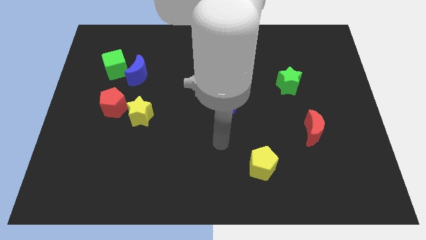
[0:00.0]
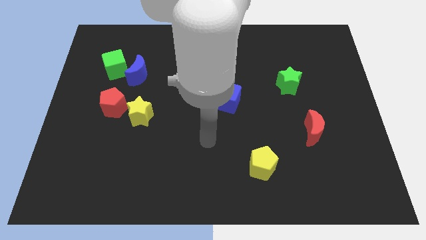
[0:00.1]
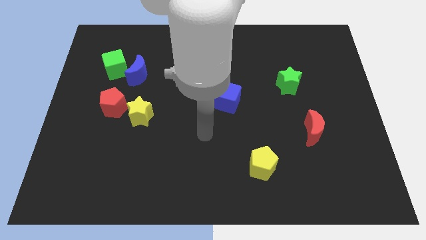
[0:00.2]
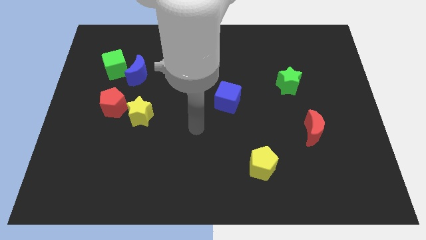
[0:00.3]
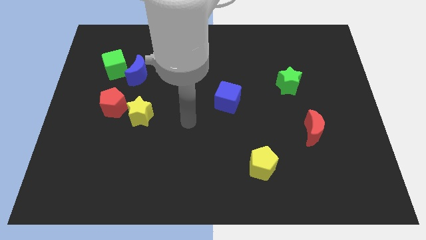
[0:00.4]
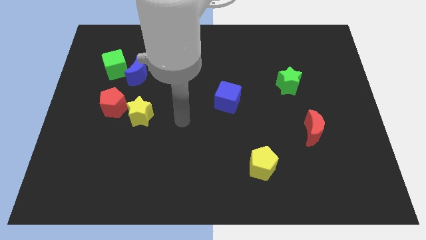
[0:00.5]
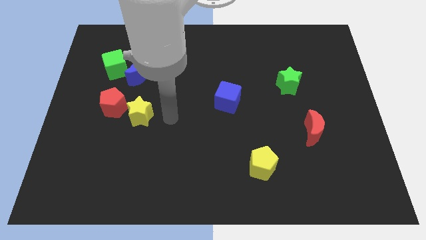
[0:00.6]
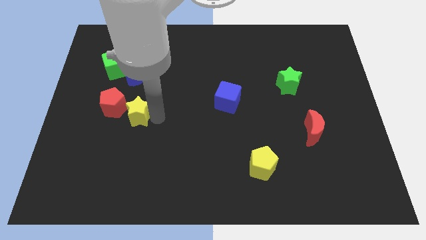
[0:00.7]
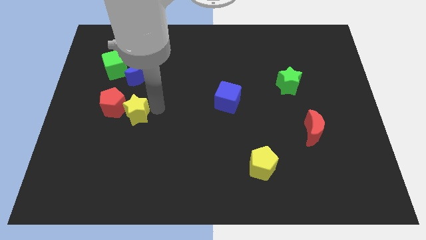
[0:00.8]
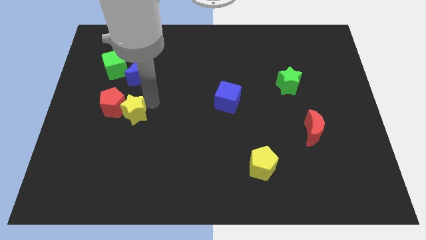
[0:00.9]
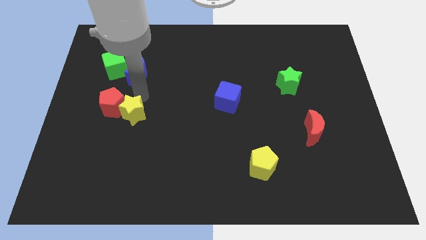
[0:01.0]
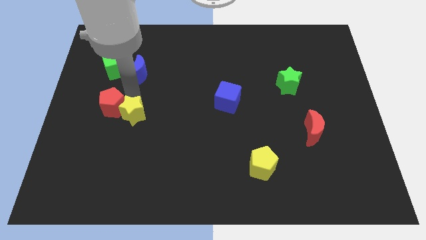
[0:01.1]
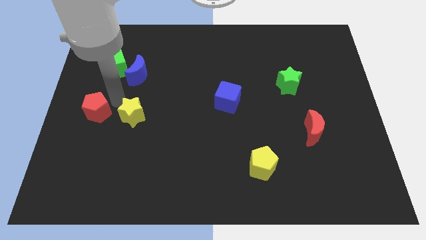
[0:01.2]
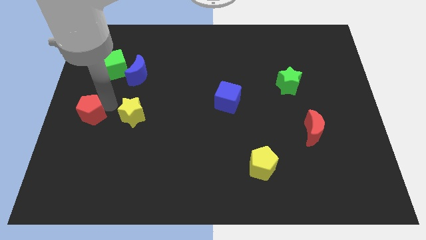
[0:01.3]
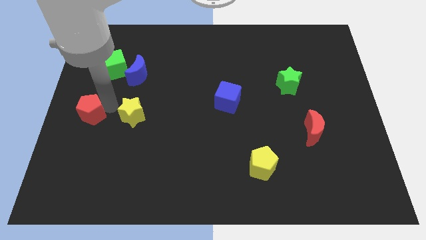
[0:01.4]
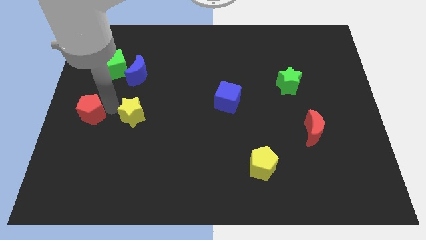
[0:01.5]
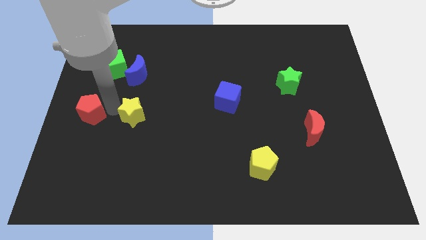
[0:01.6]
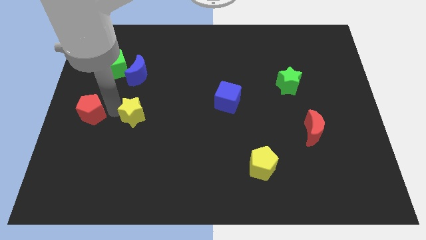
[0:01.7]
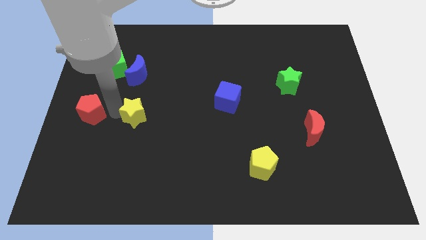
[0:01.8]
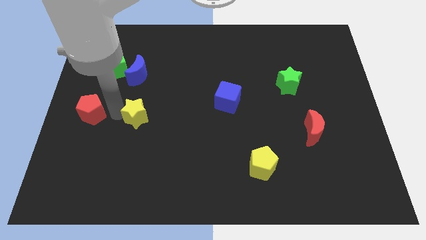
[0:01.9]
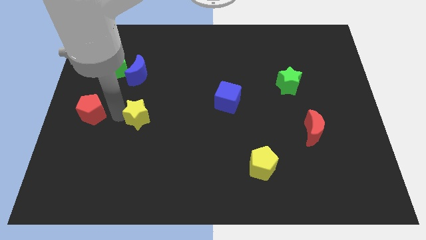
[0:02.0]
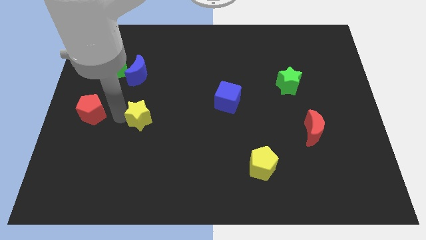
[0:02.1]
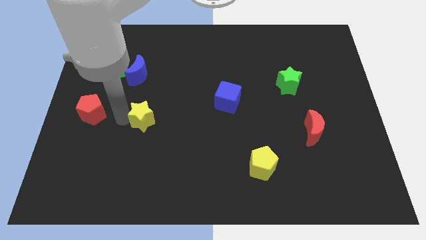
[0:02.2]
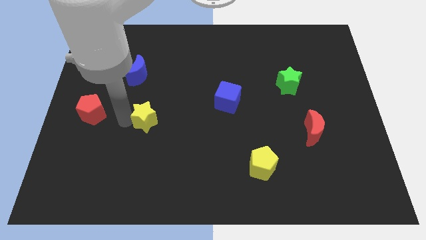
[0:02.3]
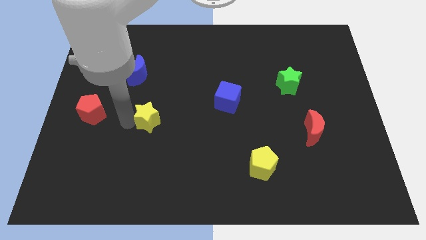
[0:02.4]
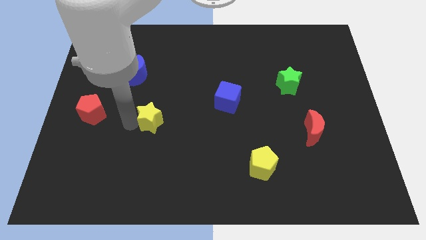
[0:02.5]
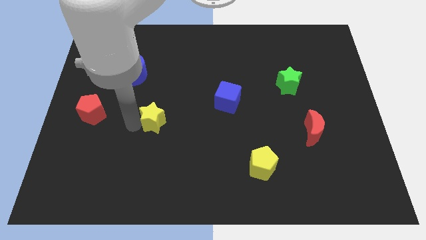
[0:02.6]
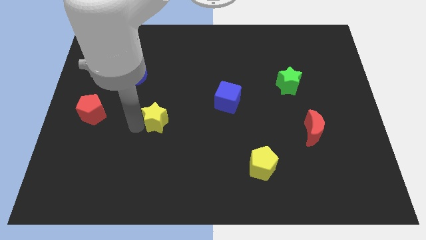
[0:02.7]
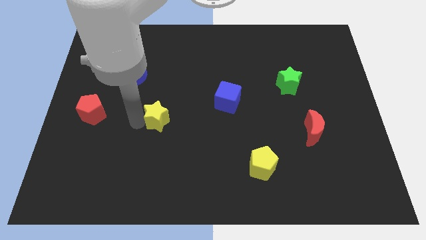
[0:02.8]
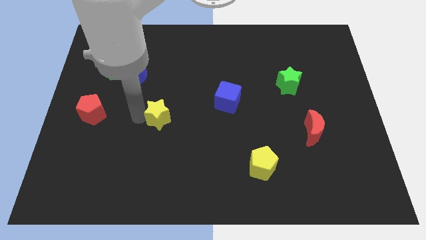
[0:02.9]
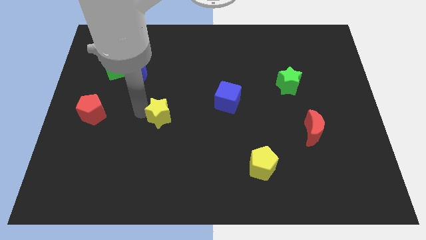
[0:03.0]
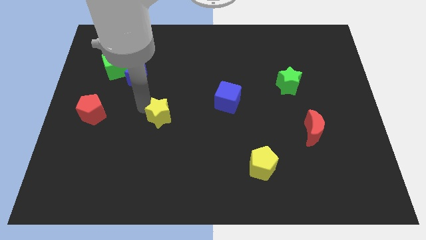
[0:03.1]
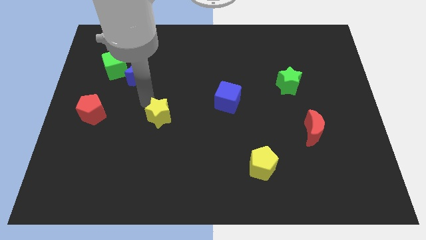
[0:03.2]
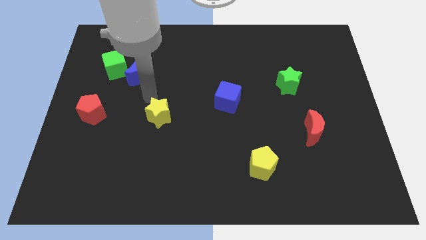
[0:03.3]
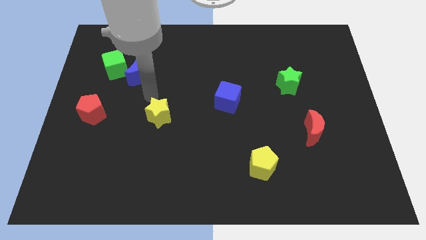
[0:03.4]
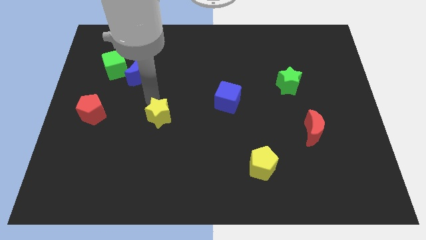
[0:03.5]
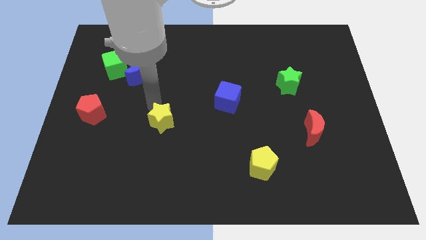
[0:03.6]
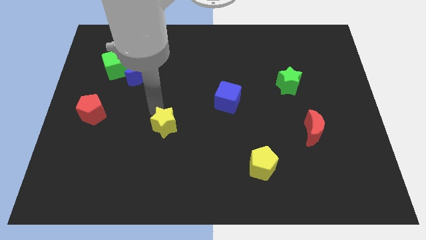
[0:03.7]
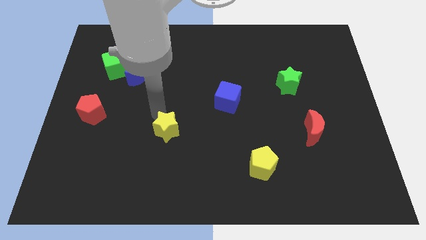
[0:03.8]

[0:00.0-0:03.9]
push the yellow star a little bit down and then to the right

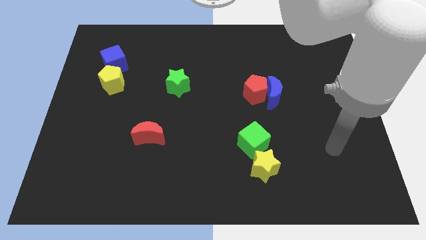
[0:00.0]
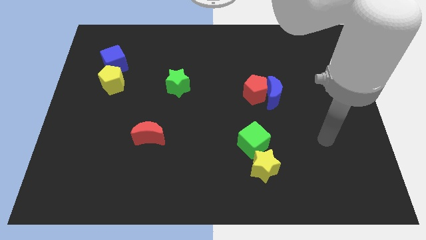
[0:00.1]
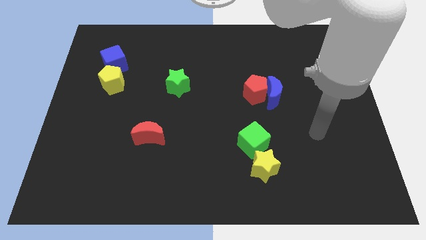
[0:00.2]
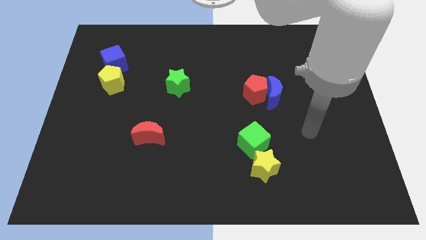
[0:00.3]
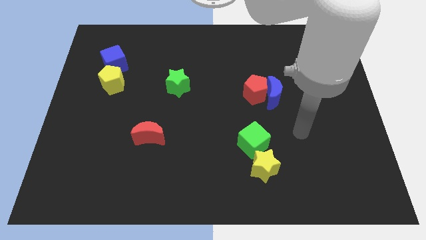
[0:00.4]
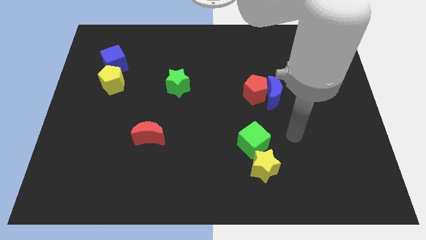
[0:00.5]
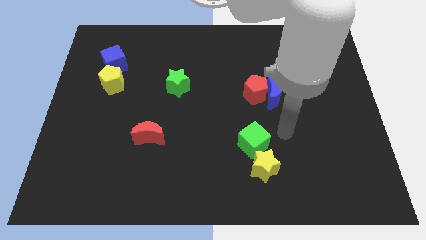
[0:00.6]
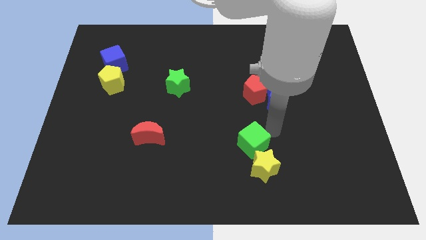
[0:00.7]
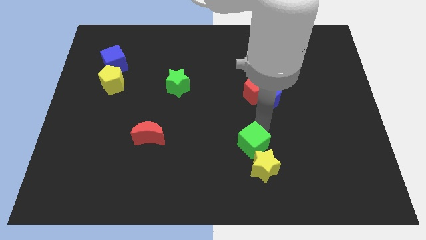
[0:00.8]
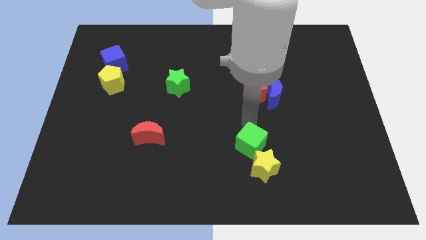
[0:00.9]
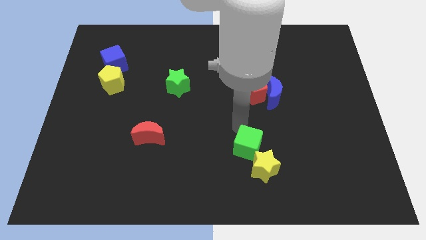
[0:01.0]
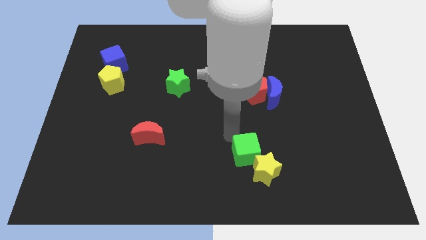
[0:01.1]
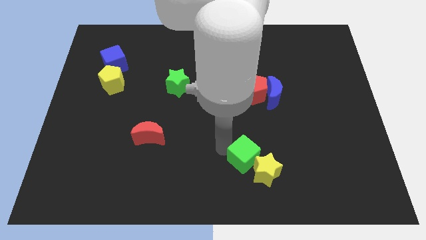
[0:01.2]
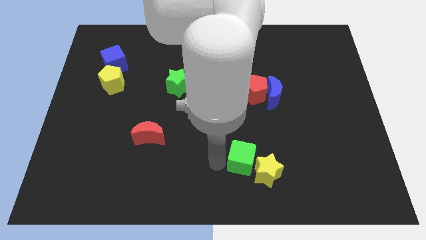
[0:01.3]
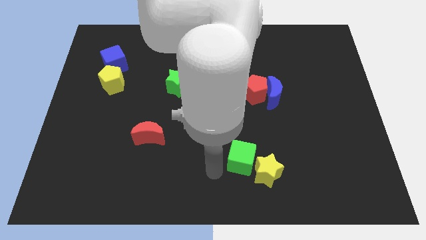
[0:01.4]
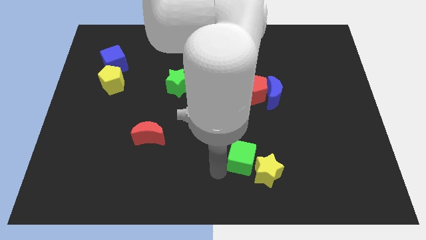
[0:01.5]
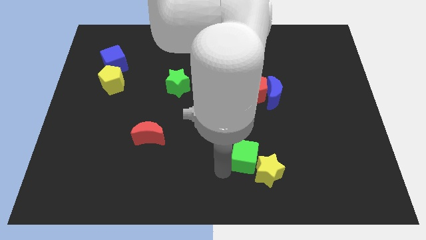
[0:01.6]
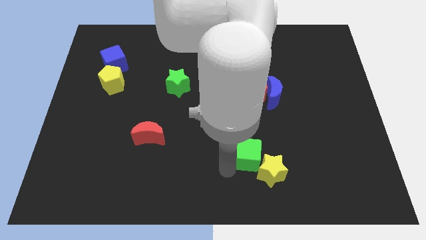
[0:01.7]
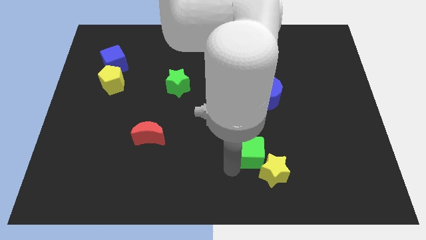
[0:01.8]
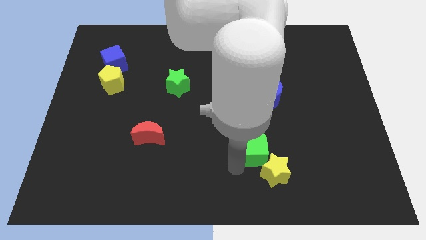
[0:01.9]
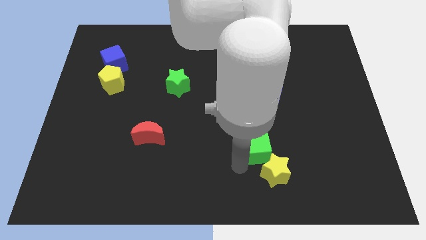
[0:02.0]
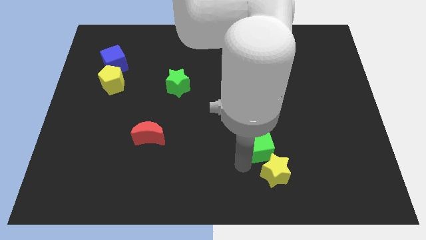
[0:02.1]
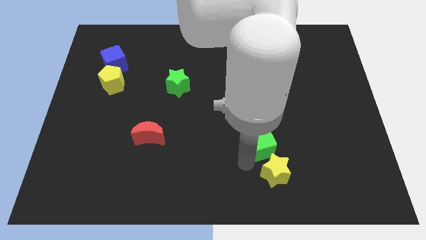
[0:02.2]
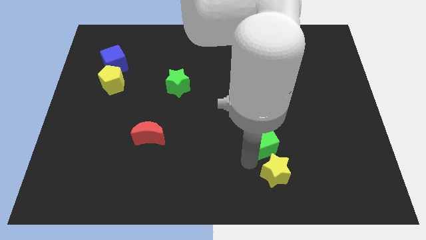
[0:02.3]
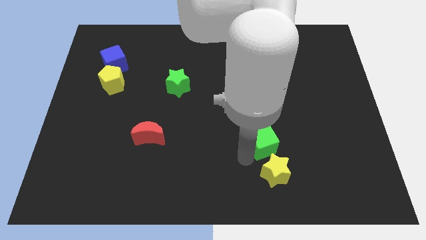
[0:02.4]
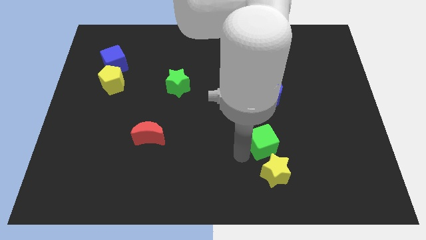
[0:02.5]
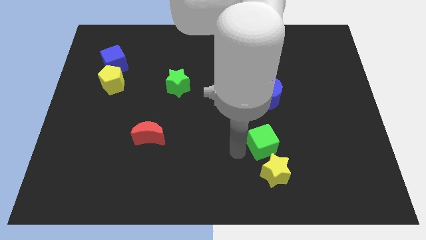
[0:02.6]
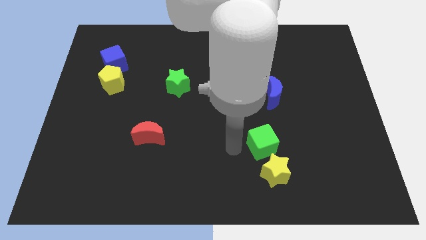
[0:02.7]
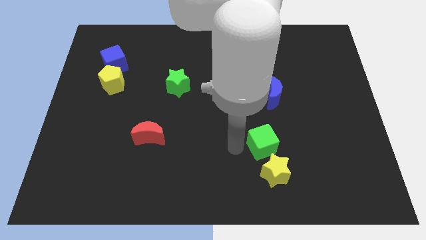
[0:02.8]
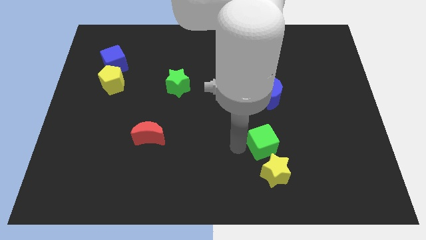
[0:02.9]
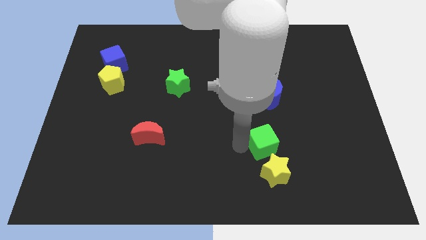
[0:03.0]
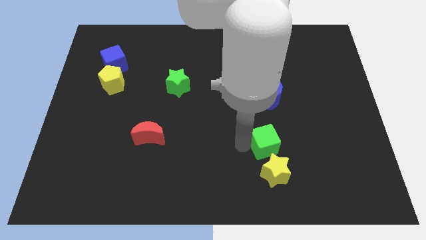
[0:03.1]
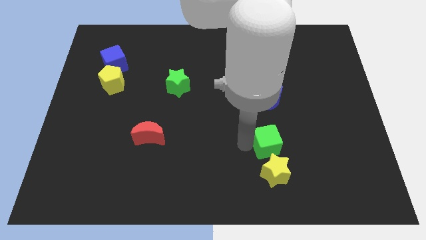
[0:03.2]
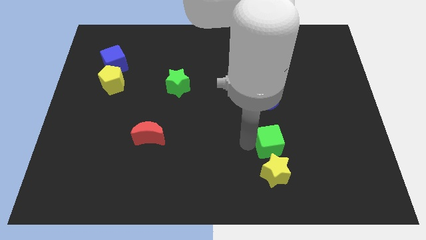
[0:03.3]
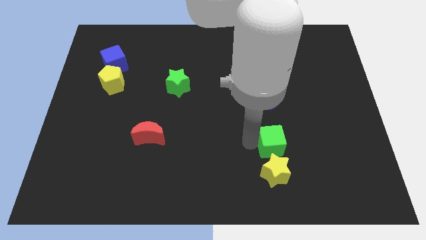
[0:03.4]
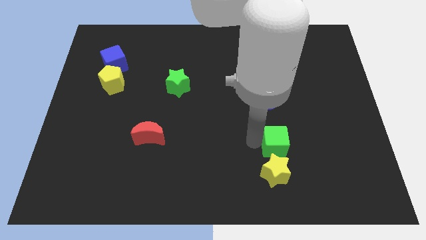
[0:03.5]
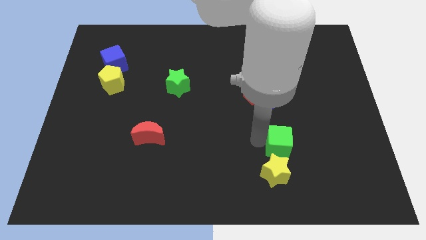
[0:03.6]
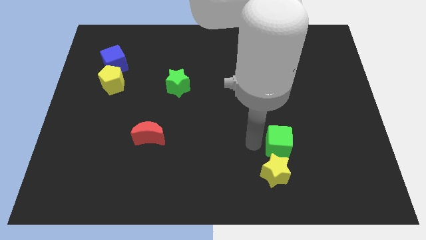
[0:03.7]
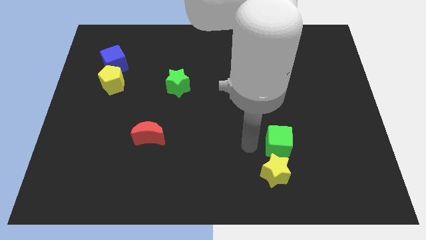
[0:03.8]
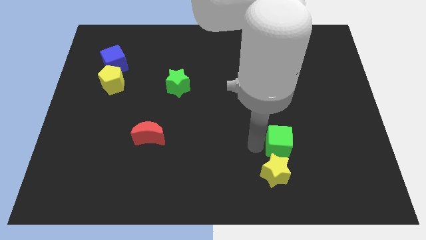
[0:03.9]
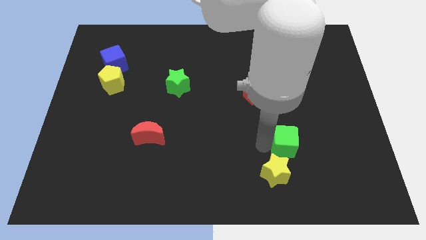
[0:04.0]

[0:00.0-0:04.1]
move the green cube a little right
